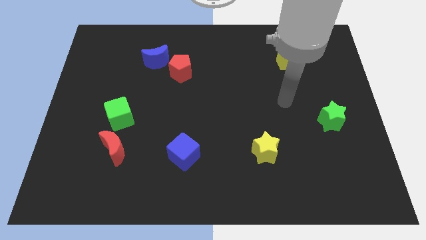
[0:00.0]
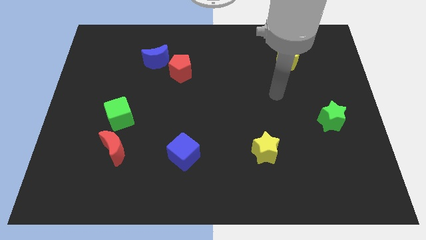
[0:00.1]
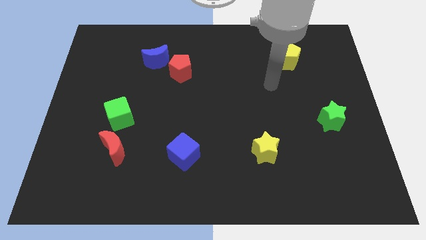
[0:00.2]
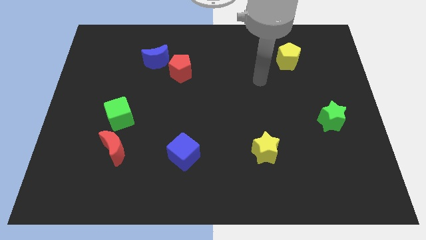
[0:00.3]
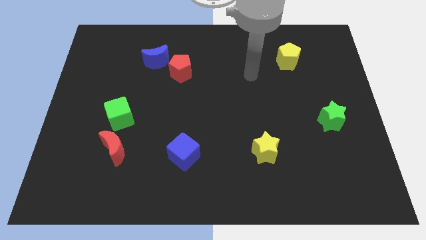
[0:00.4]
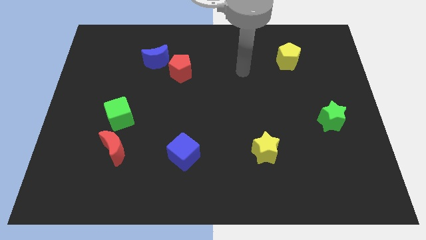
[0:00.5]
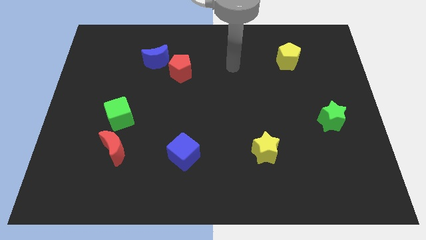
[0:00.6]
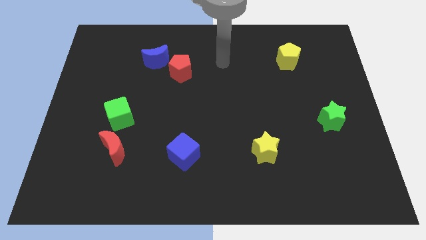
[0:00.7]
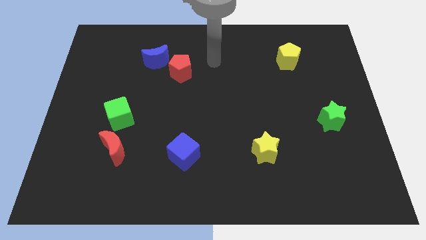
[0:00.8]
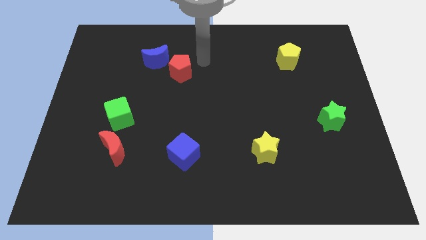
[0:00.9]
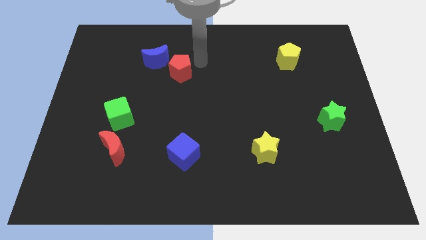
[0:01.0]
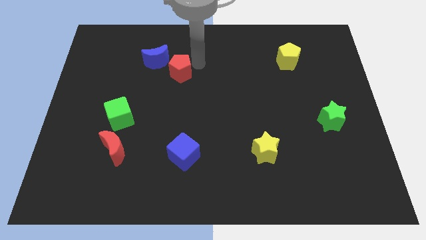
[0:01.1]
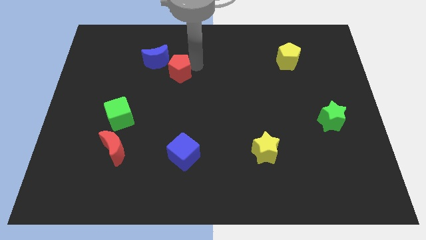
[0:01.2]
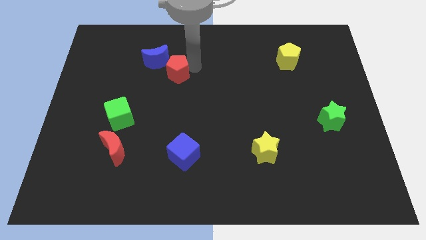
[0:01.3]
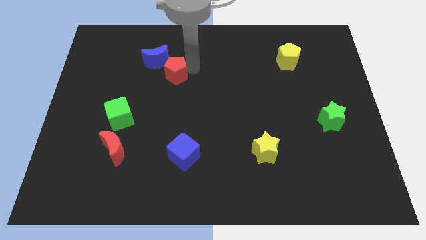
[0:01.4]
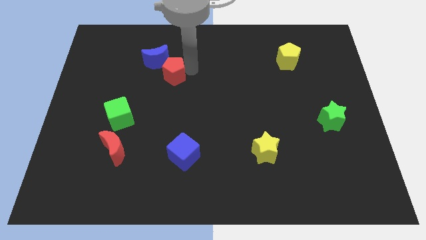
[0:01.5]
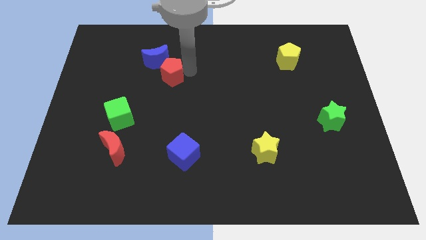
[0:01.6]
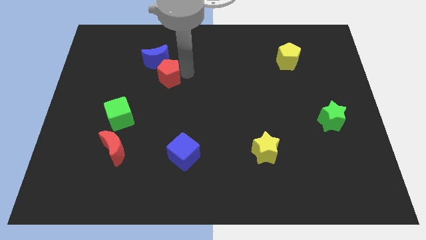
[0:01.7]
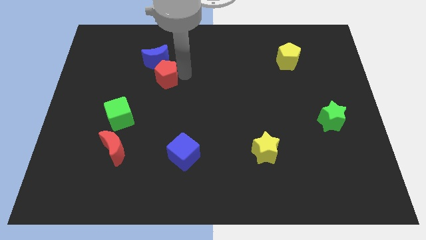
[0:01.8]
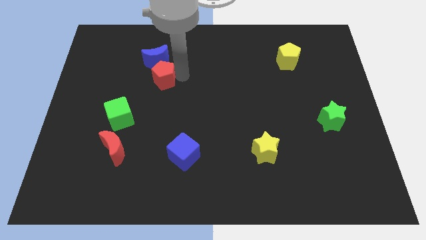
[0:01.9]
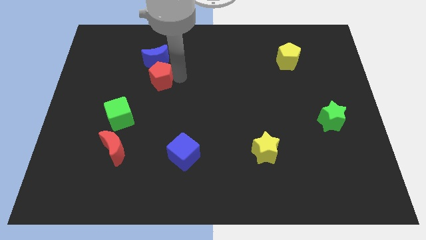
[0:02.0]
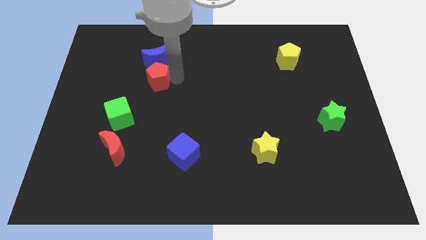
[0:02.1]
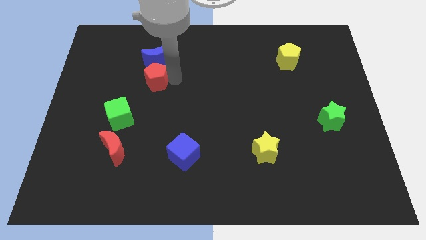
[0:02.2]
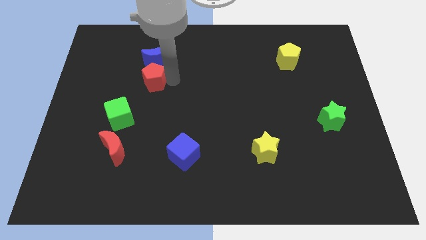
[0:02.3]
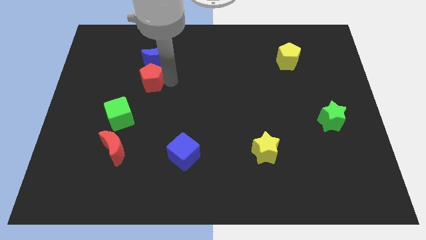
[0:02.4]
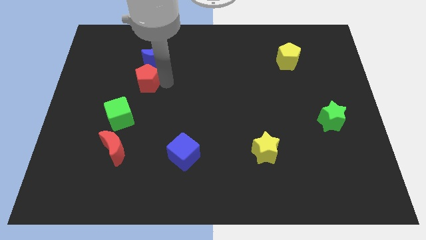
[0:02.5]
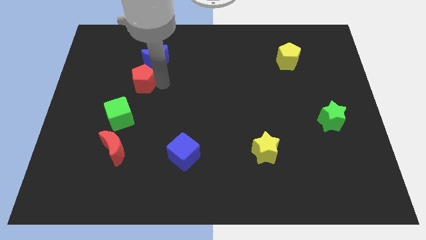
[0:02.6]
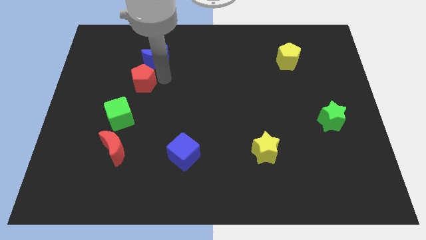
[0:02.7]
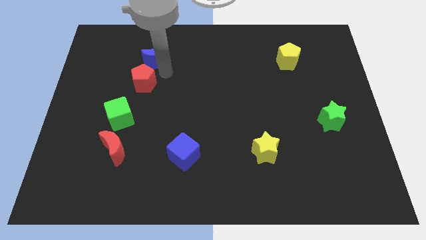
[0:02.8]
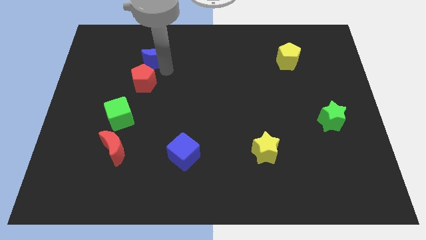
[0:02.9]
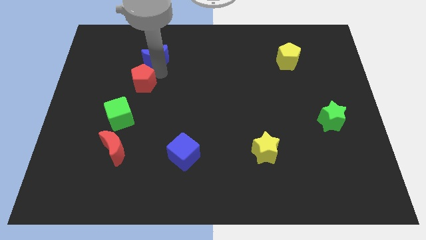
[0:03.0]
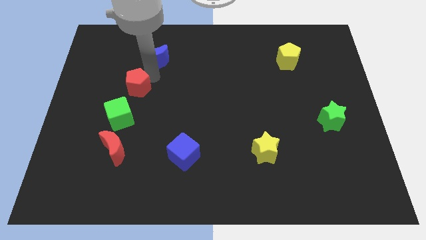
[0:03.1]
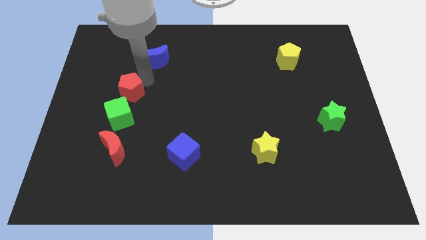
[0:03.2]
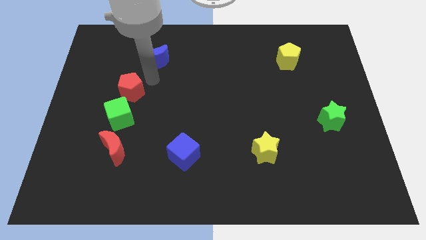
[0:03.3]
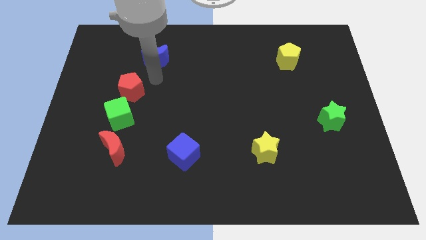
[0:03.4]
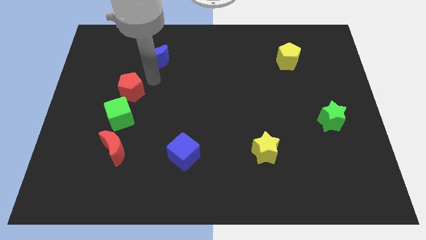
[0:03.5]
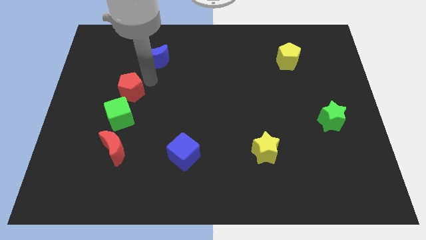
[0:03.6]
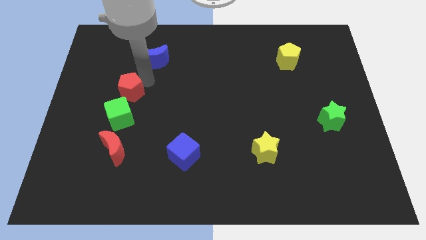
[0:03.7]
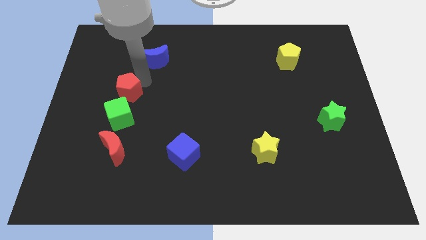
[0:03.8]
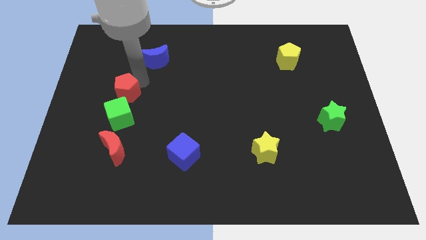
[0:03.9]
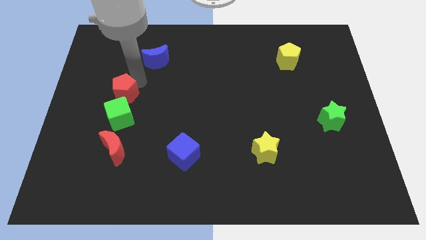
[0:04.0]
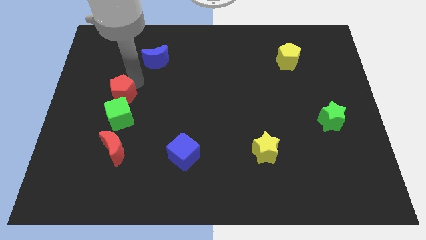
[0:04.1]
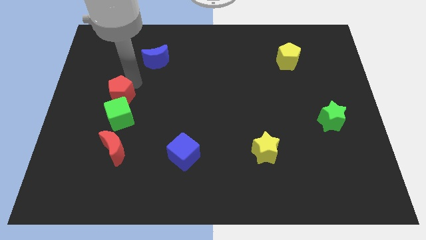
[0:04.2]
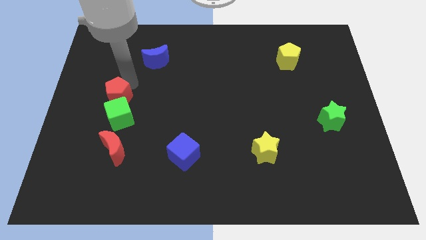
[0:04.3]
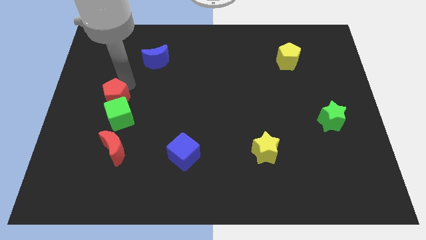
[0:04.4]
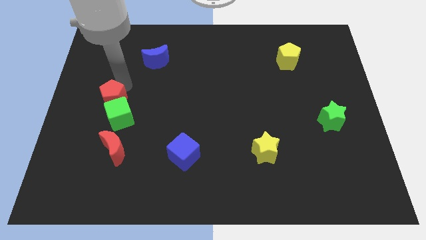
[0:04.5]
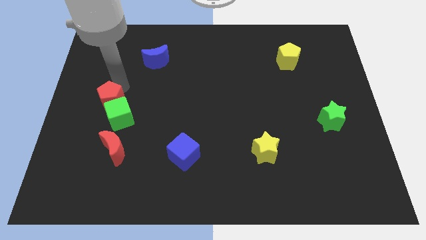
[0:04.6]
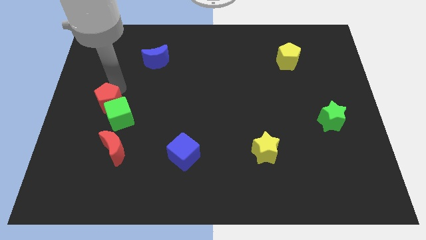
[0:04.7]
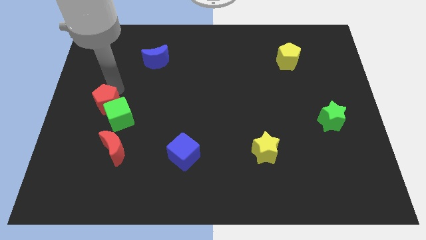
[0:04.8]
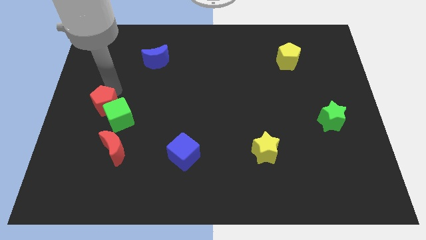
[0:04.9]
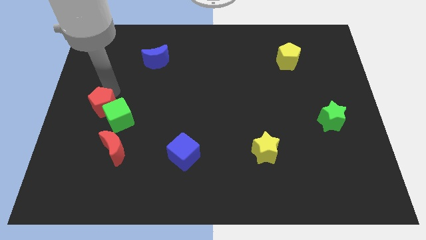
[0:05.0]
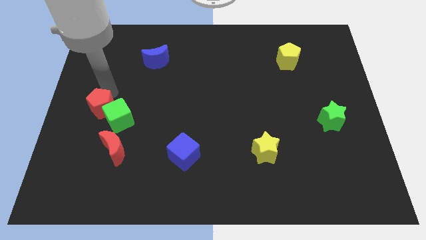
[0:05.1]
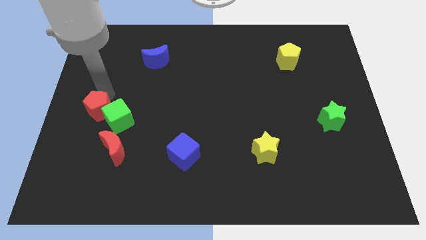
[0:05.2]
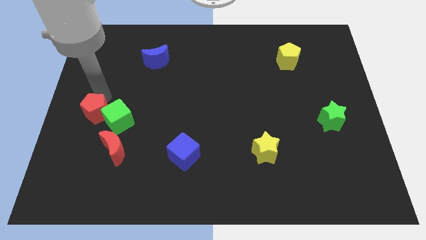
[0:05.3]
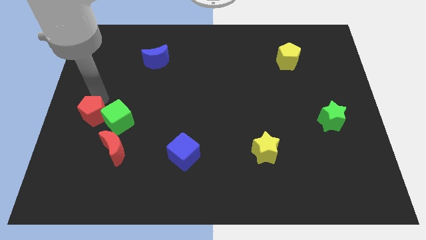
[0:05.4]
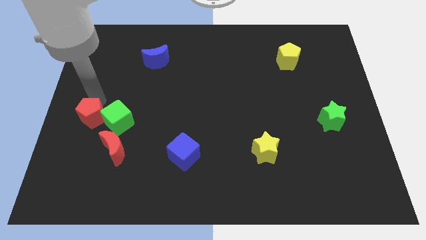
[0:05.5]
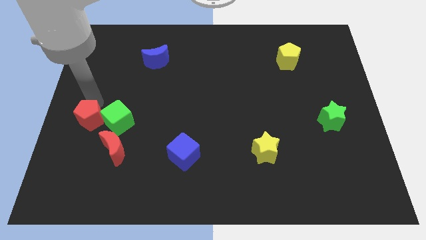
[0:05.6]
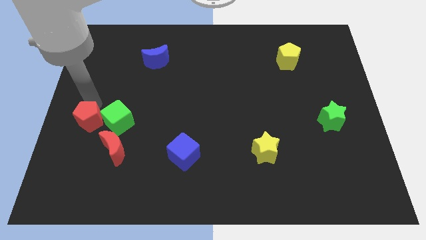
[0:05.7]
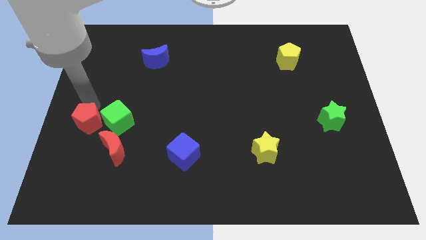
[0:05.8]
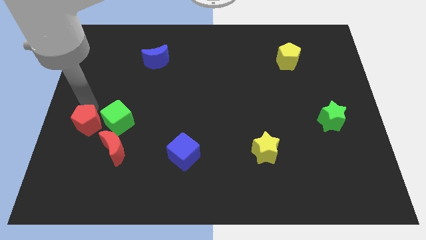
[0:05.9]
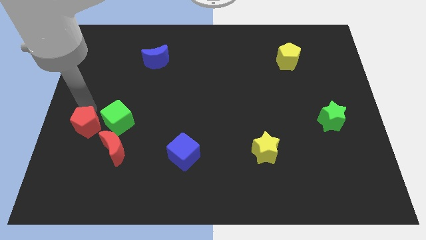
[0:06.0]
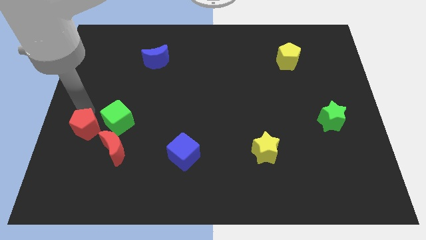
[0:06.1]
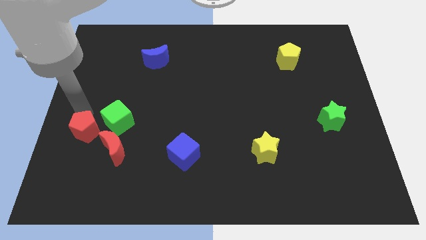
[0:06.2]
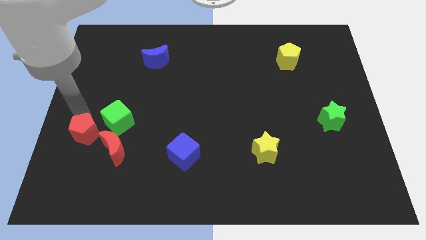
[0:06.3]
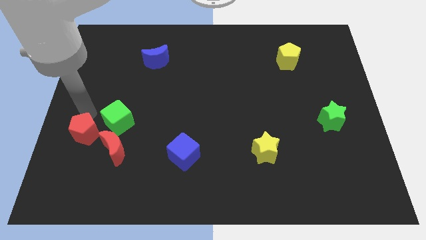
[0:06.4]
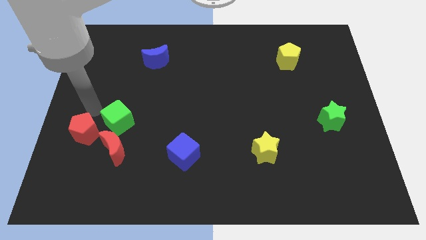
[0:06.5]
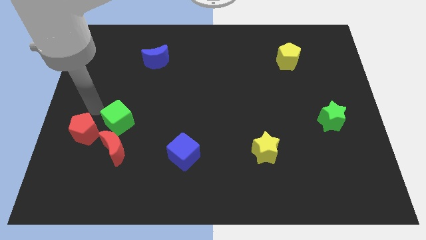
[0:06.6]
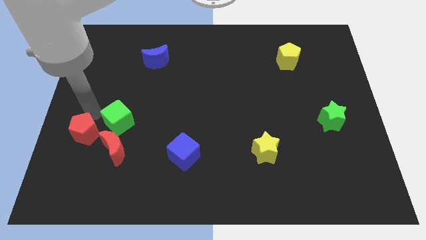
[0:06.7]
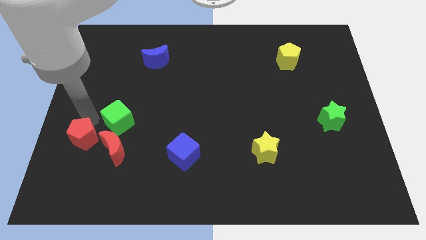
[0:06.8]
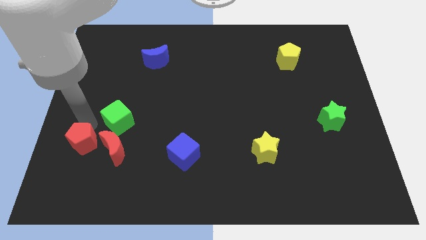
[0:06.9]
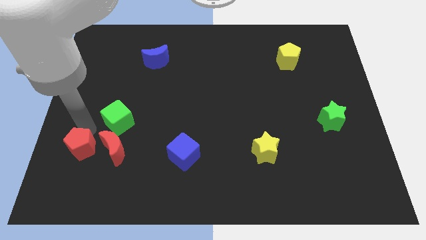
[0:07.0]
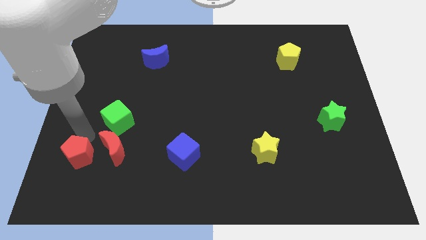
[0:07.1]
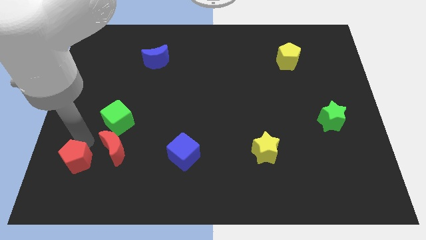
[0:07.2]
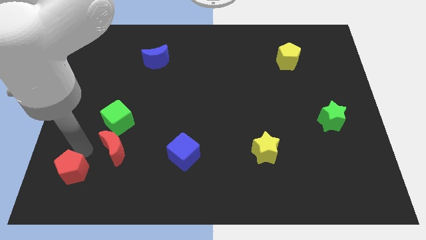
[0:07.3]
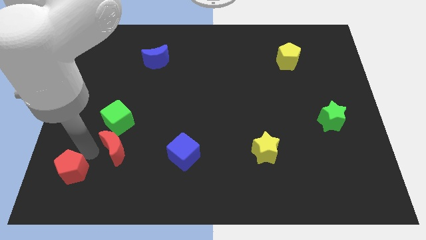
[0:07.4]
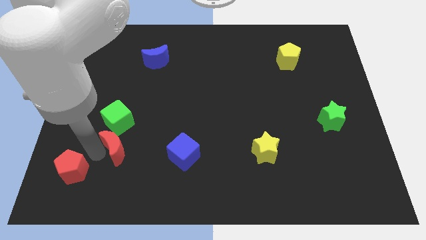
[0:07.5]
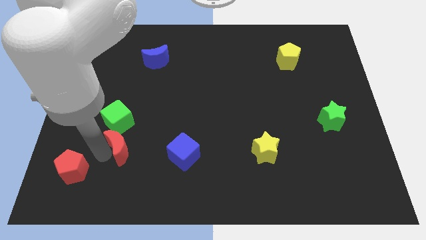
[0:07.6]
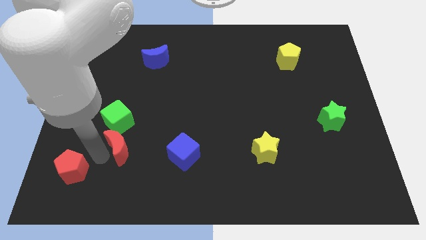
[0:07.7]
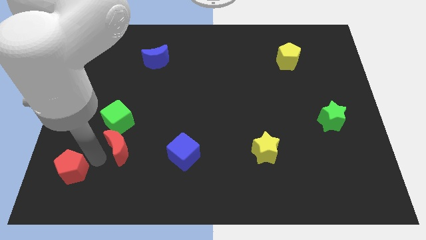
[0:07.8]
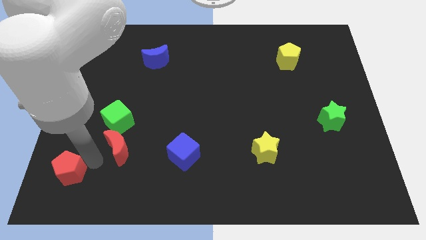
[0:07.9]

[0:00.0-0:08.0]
slide the red pentagon to the bottom left of the board
